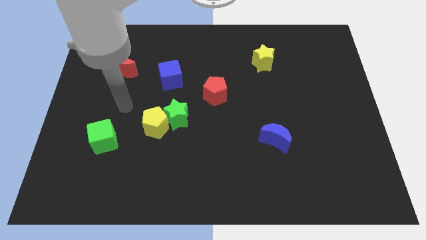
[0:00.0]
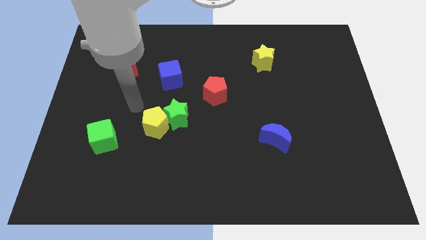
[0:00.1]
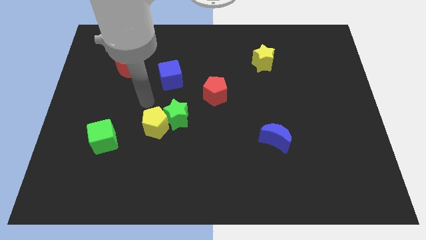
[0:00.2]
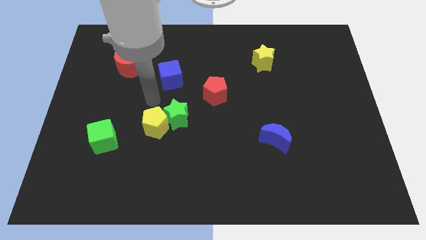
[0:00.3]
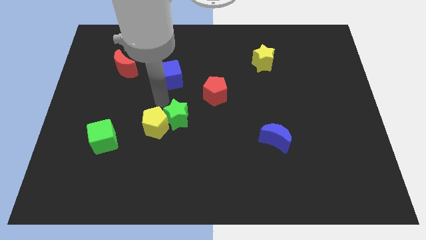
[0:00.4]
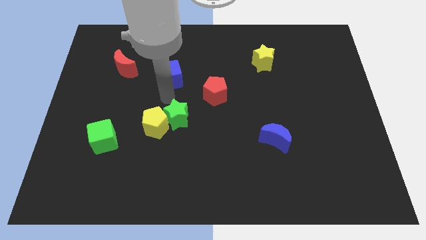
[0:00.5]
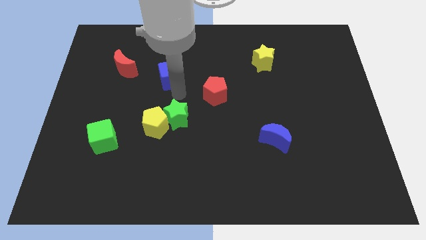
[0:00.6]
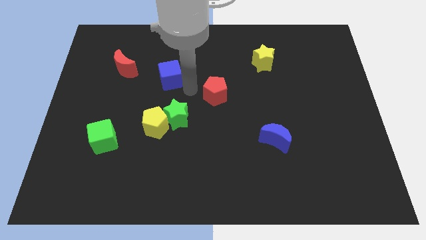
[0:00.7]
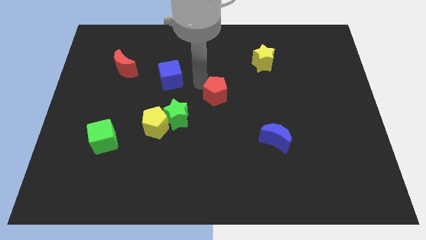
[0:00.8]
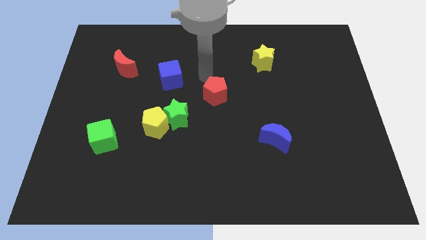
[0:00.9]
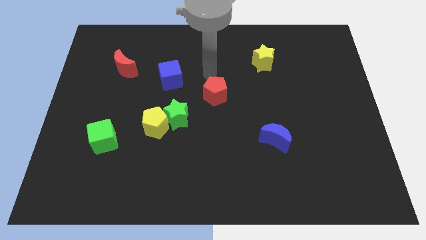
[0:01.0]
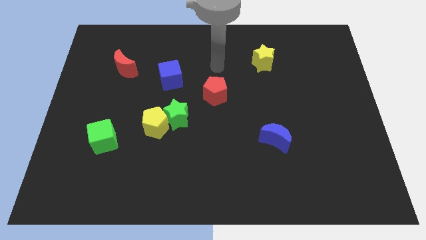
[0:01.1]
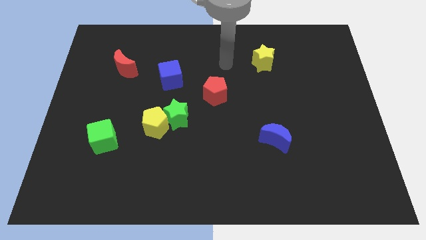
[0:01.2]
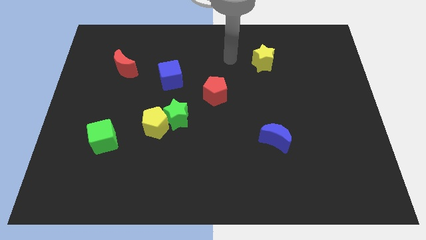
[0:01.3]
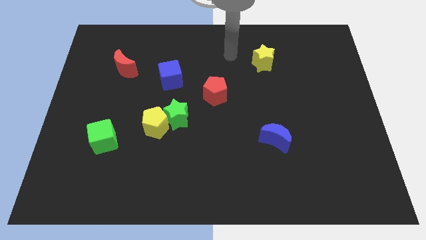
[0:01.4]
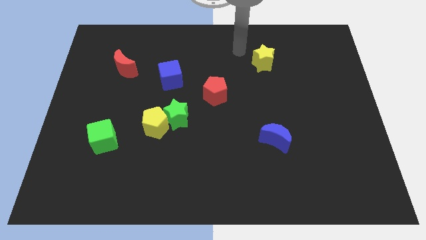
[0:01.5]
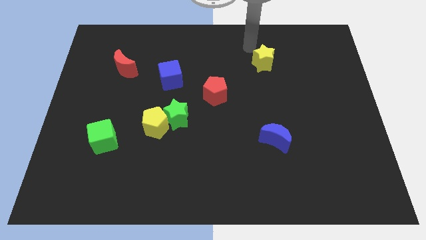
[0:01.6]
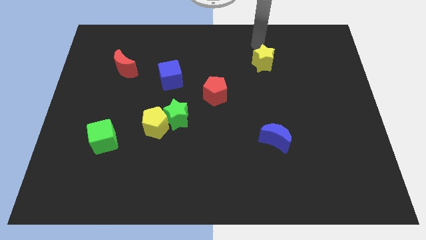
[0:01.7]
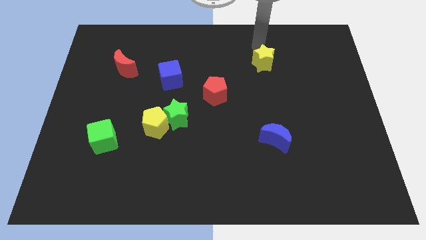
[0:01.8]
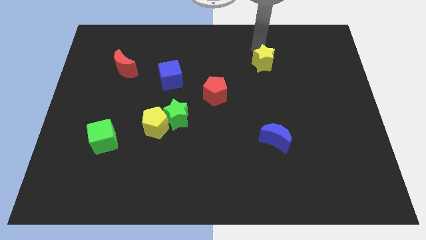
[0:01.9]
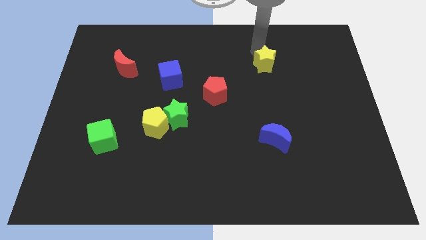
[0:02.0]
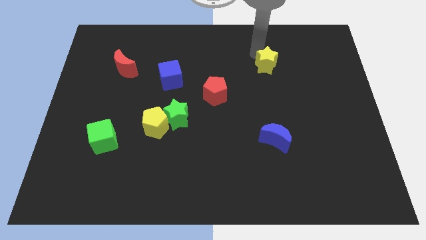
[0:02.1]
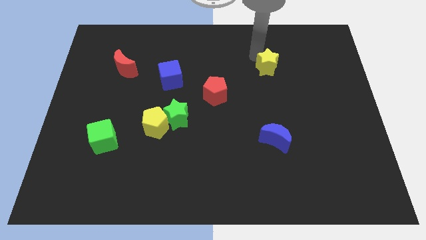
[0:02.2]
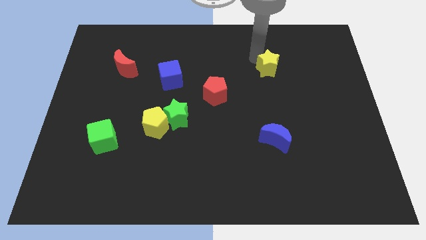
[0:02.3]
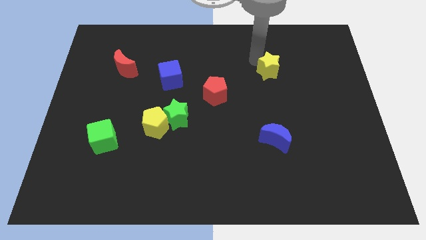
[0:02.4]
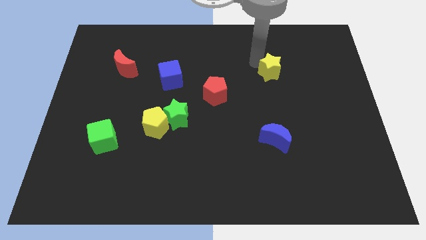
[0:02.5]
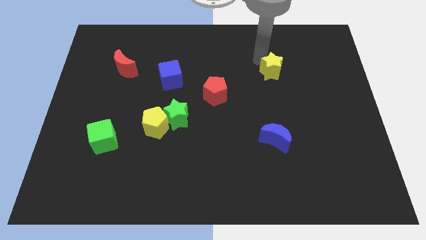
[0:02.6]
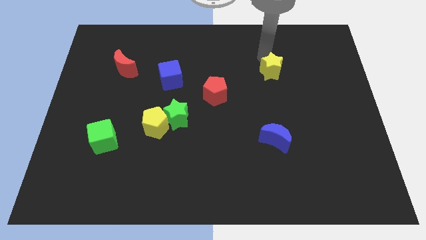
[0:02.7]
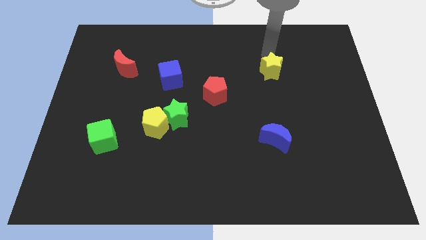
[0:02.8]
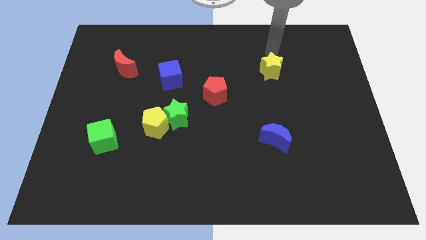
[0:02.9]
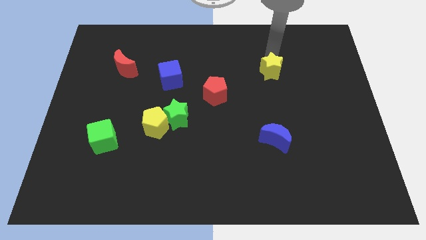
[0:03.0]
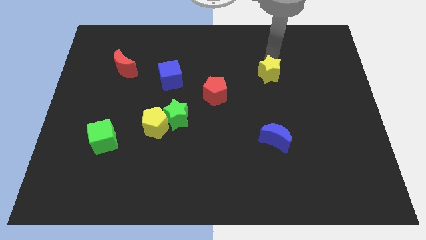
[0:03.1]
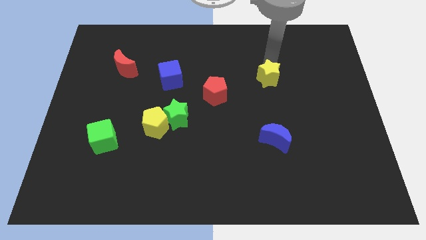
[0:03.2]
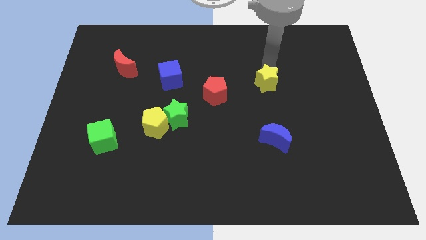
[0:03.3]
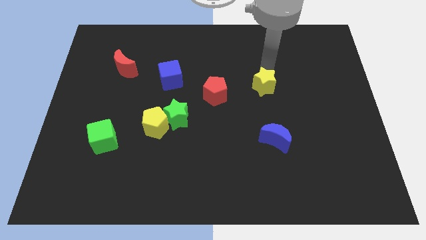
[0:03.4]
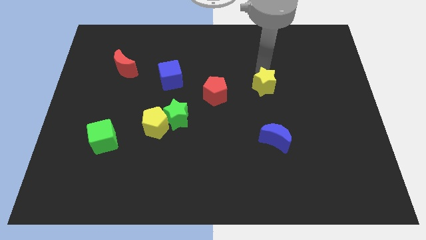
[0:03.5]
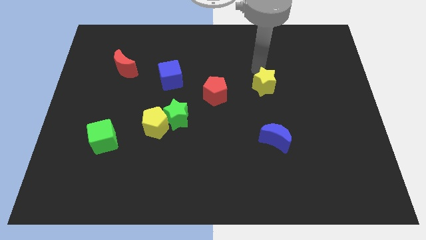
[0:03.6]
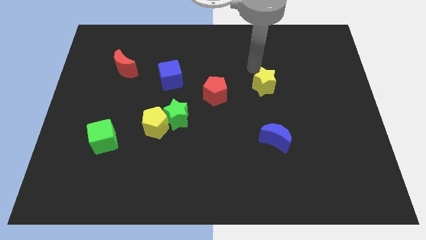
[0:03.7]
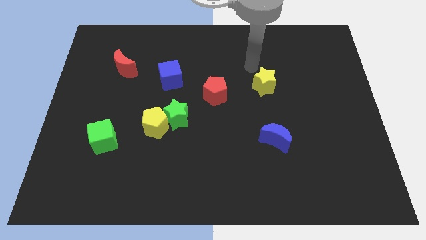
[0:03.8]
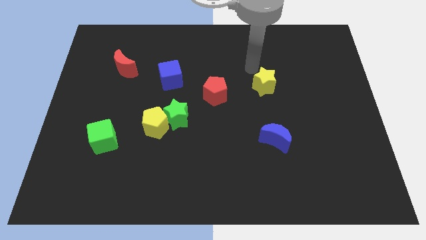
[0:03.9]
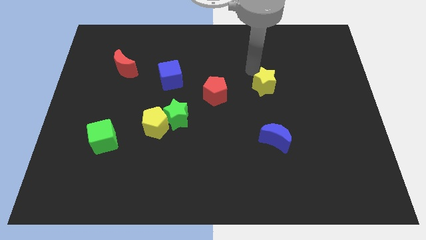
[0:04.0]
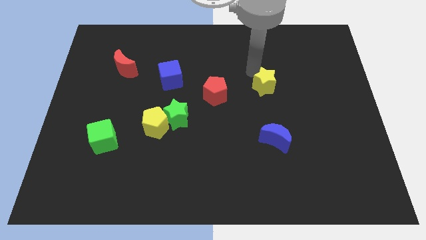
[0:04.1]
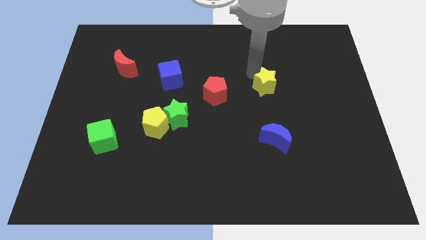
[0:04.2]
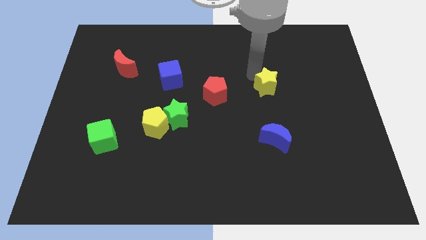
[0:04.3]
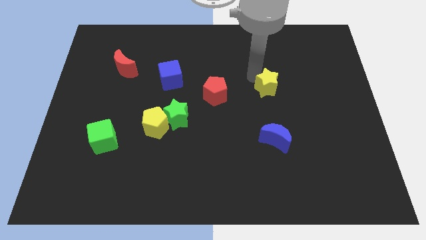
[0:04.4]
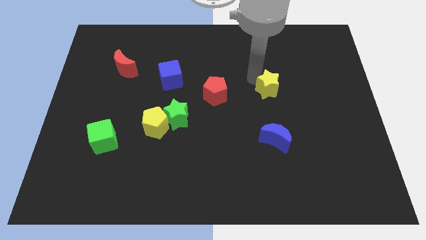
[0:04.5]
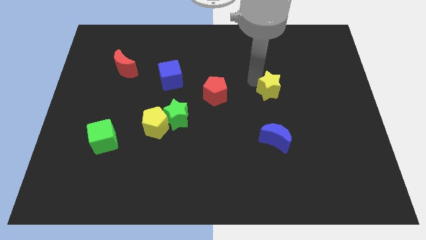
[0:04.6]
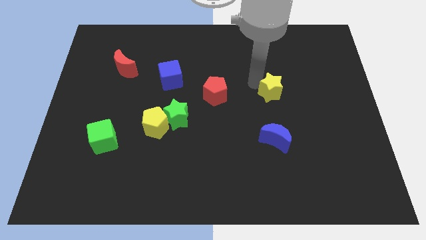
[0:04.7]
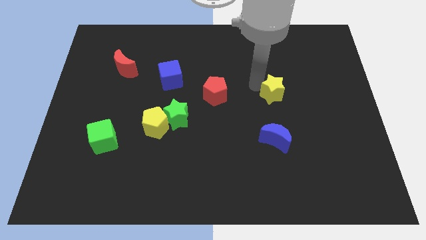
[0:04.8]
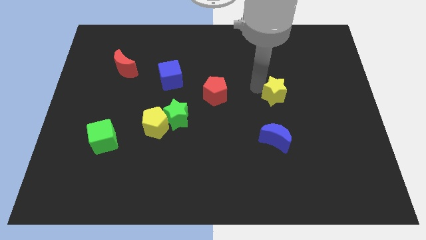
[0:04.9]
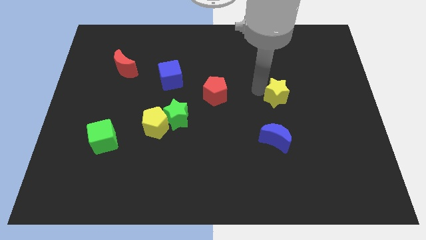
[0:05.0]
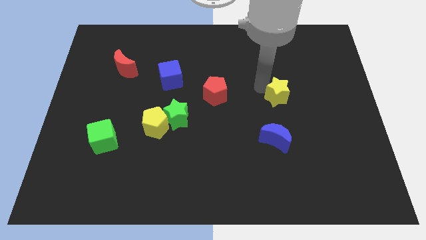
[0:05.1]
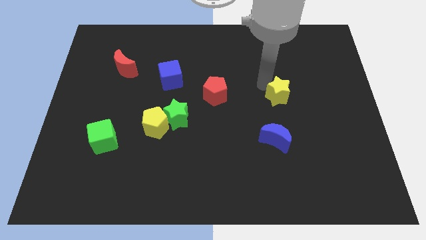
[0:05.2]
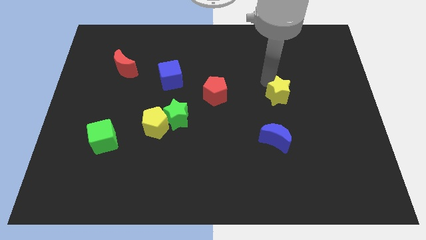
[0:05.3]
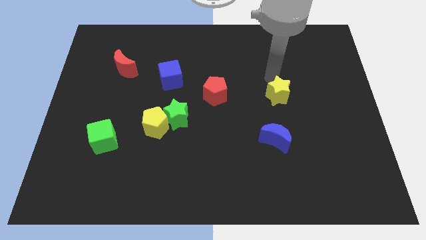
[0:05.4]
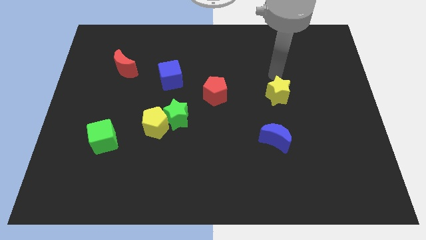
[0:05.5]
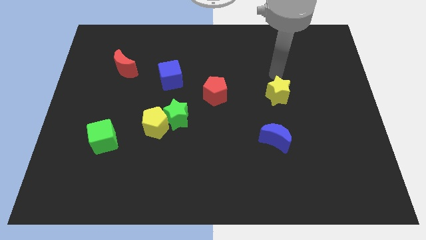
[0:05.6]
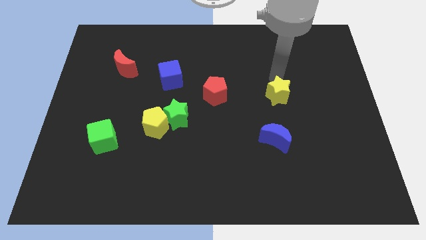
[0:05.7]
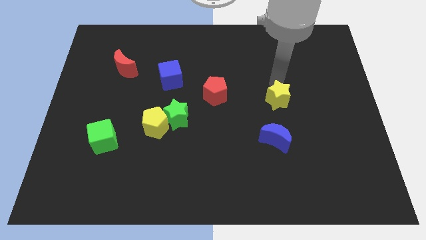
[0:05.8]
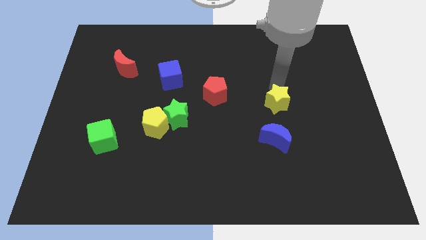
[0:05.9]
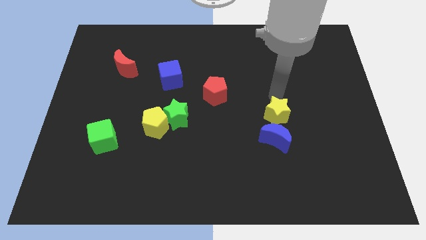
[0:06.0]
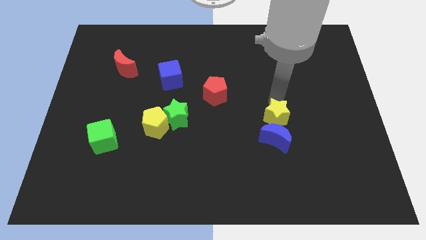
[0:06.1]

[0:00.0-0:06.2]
put the yellow star to the blue moon

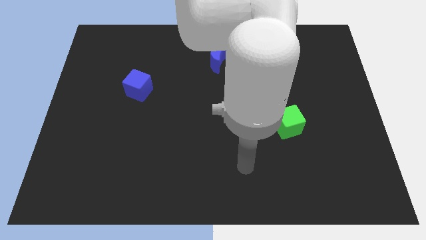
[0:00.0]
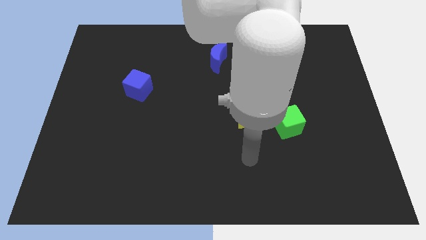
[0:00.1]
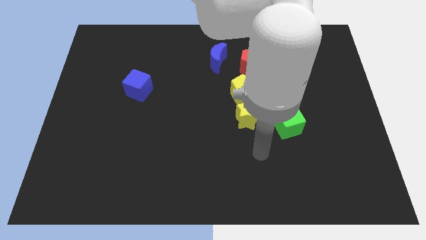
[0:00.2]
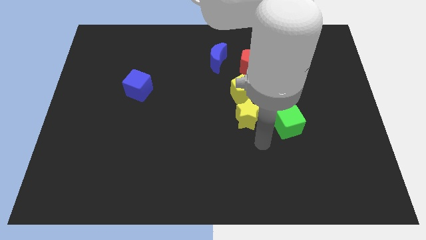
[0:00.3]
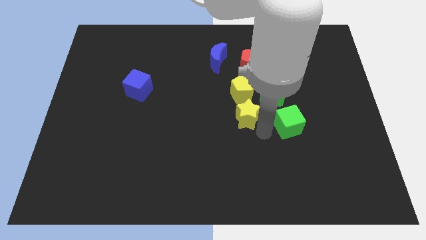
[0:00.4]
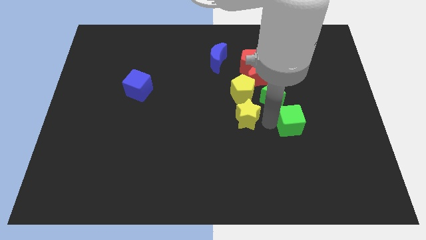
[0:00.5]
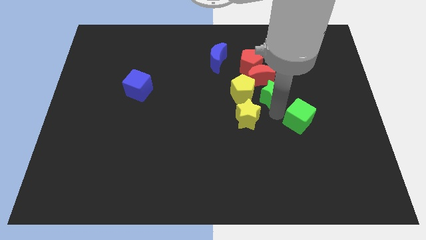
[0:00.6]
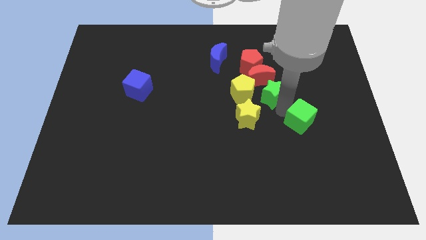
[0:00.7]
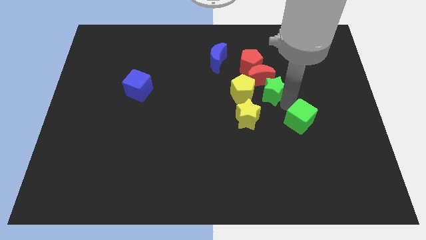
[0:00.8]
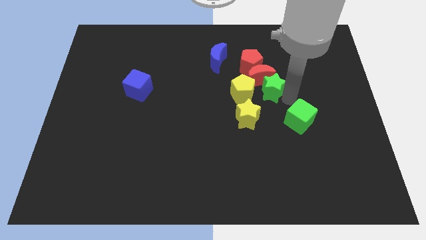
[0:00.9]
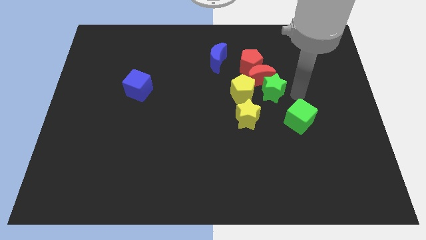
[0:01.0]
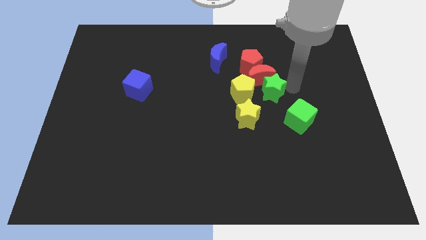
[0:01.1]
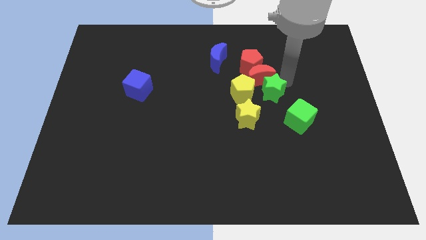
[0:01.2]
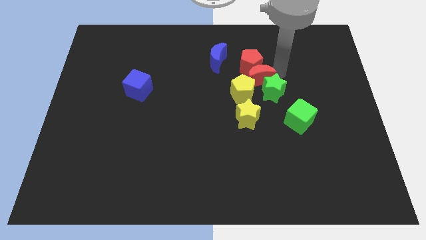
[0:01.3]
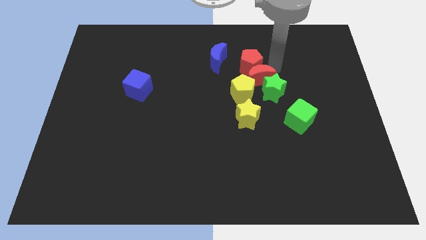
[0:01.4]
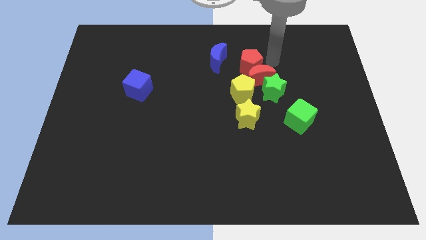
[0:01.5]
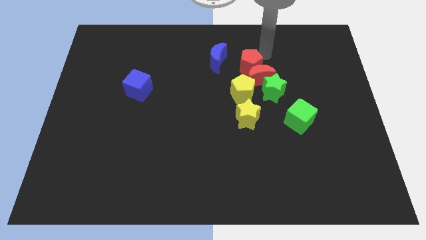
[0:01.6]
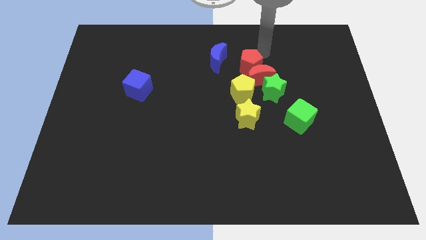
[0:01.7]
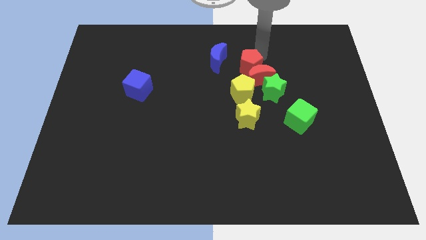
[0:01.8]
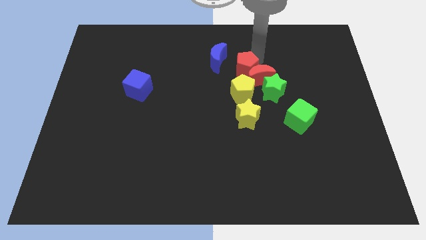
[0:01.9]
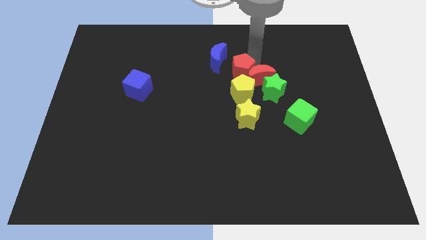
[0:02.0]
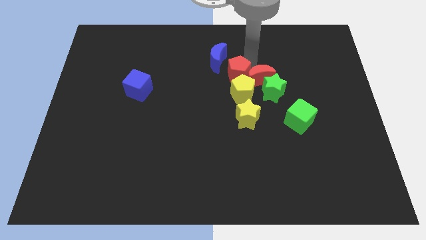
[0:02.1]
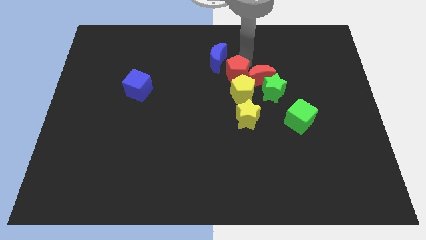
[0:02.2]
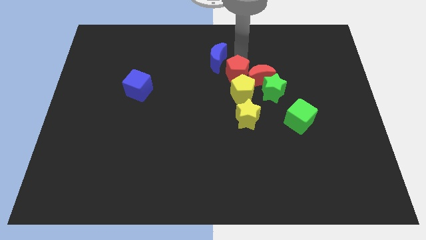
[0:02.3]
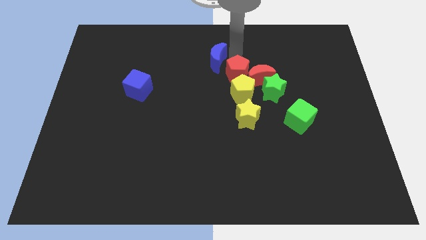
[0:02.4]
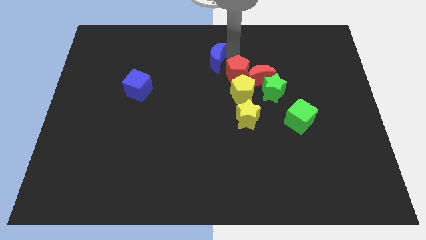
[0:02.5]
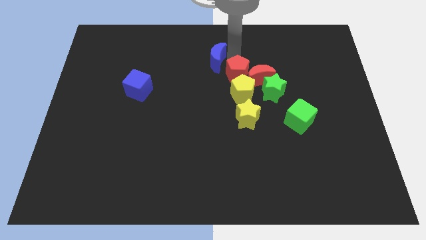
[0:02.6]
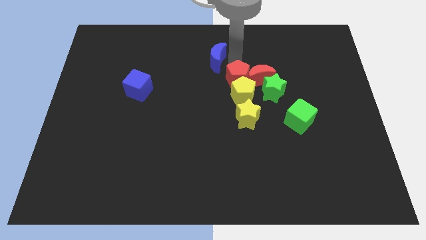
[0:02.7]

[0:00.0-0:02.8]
put the red pentagon towards the yellow pentagon
